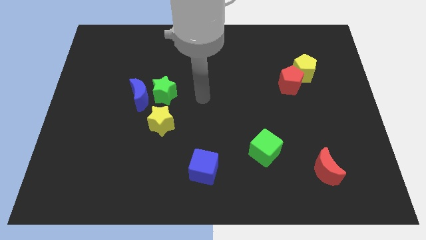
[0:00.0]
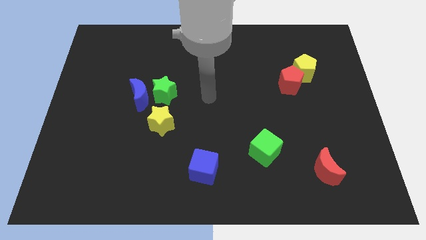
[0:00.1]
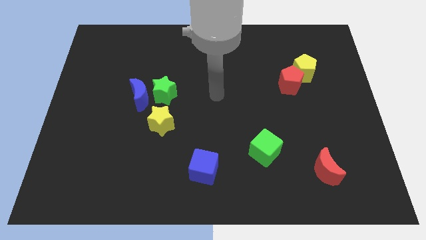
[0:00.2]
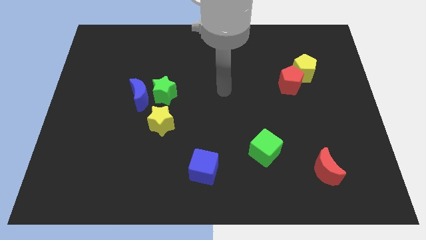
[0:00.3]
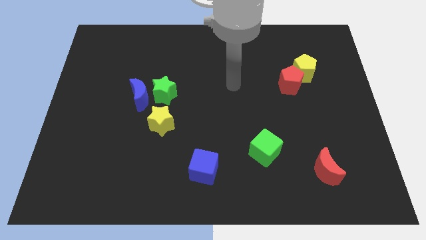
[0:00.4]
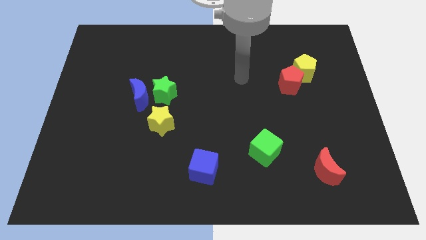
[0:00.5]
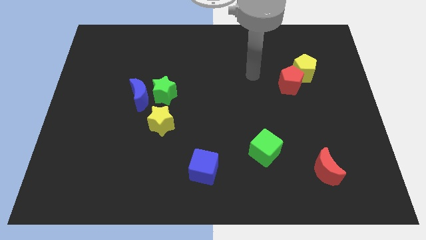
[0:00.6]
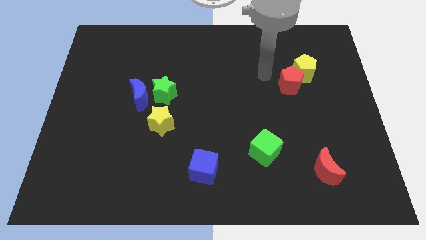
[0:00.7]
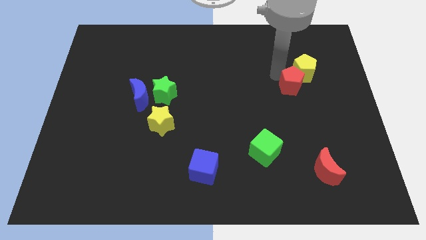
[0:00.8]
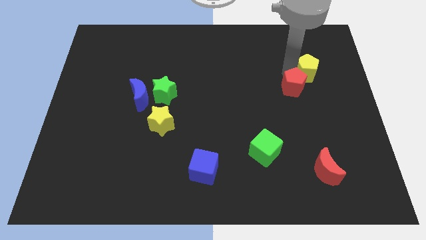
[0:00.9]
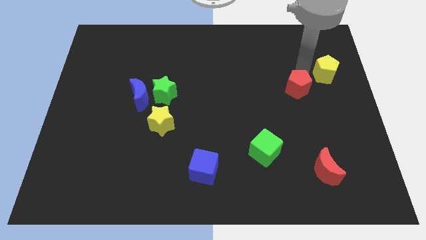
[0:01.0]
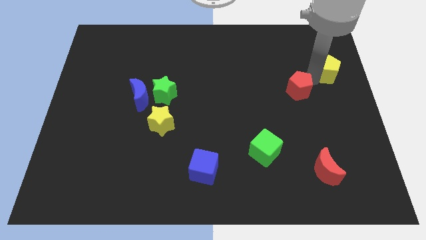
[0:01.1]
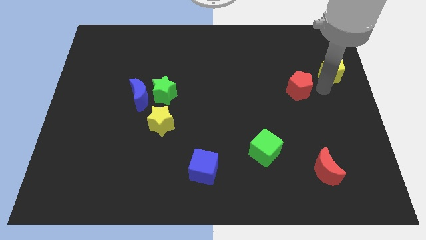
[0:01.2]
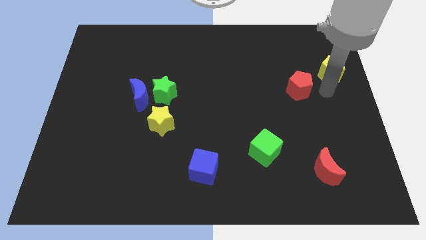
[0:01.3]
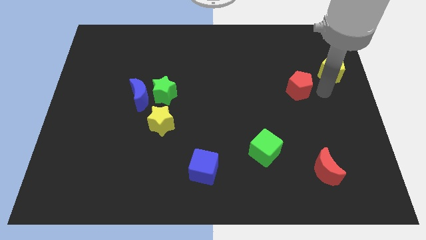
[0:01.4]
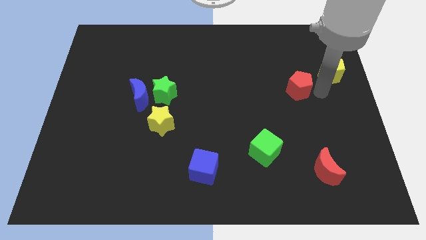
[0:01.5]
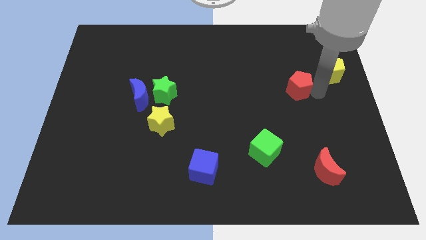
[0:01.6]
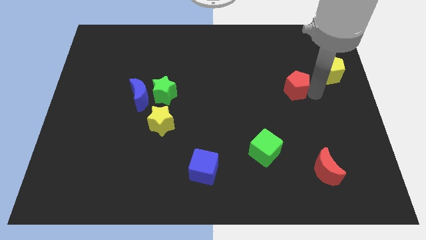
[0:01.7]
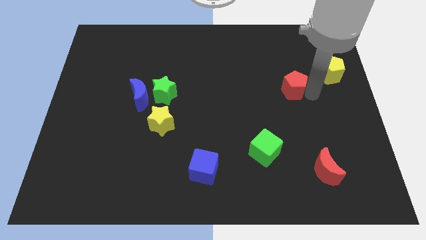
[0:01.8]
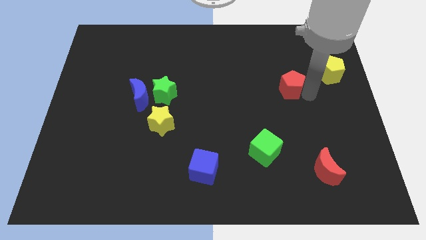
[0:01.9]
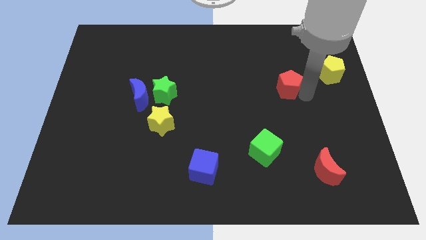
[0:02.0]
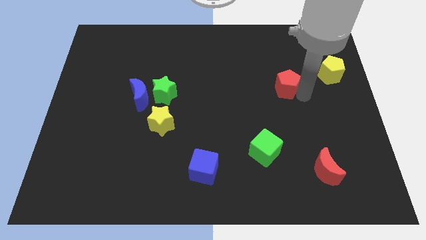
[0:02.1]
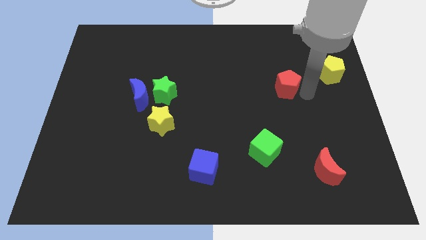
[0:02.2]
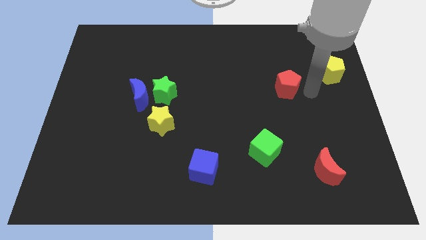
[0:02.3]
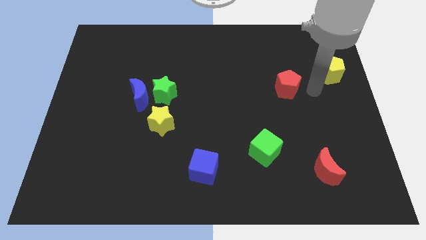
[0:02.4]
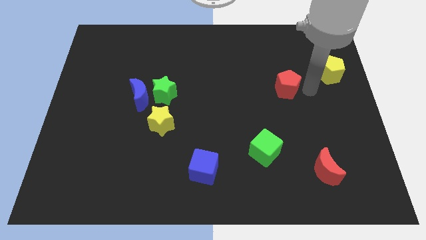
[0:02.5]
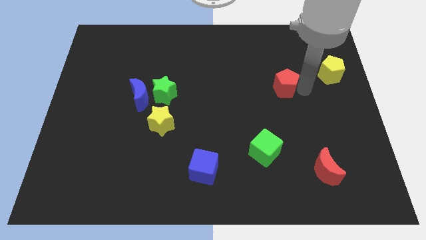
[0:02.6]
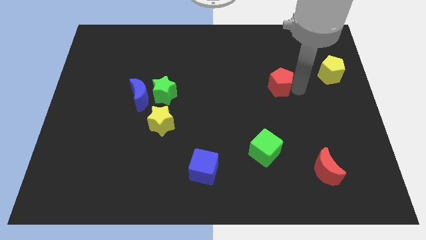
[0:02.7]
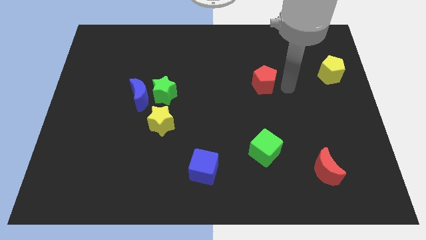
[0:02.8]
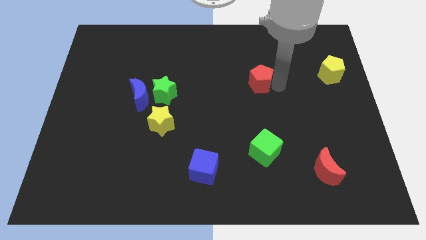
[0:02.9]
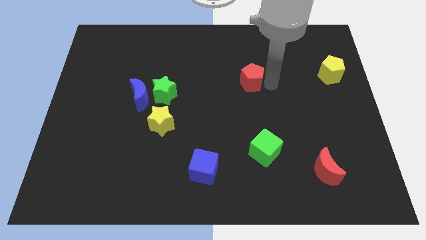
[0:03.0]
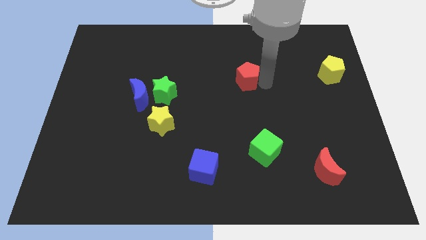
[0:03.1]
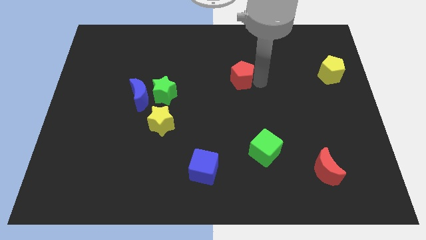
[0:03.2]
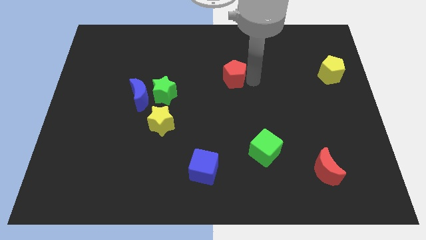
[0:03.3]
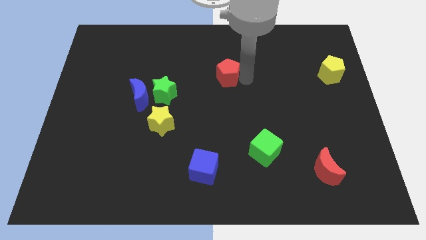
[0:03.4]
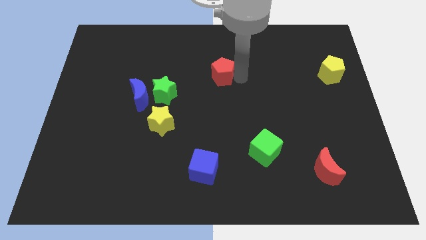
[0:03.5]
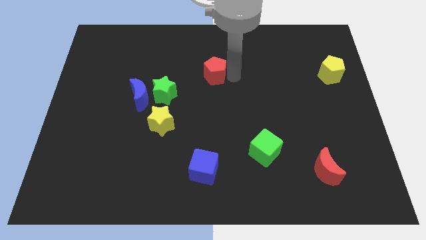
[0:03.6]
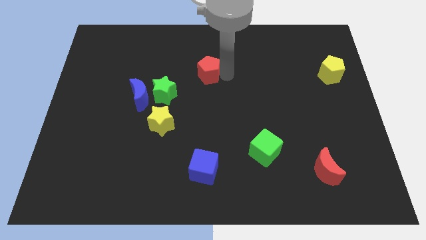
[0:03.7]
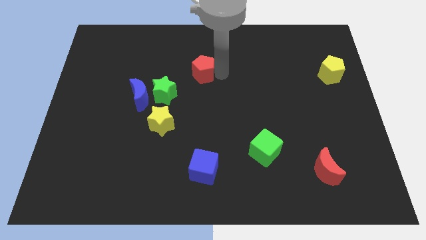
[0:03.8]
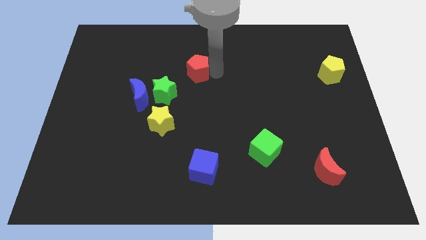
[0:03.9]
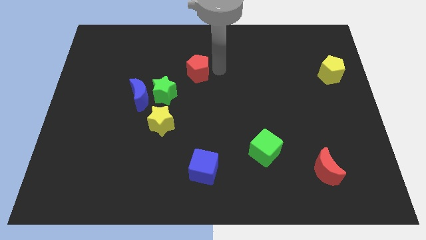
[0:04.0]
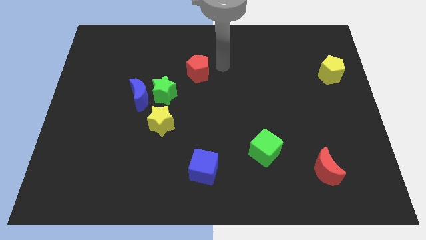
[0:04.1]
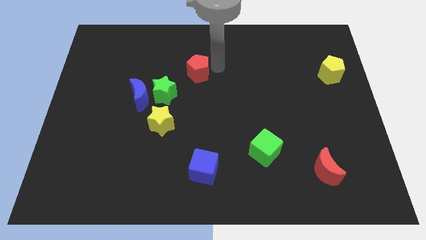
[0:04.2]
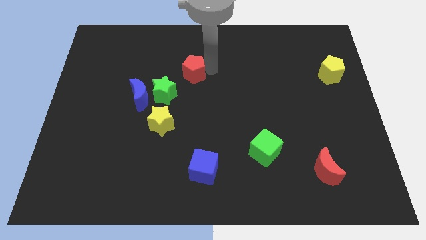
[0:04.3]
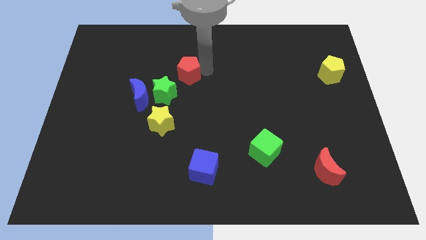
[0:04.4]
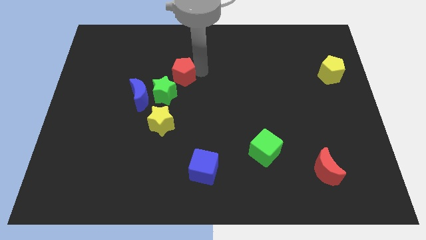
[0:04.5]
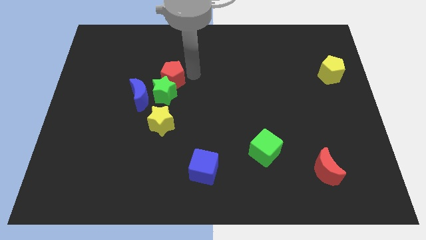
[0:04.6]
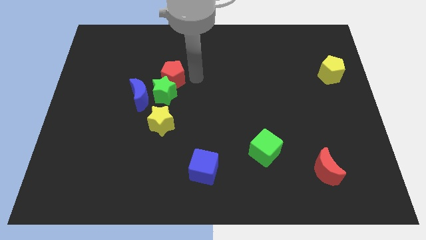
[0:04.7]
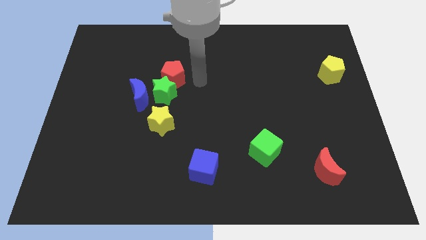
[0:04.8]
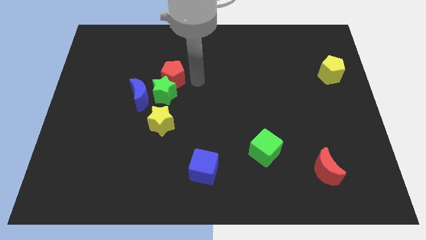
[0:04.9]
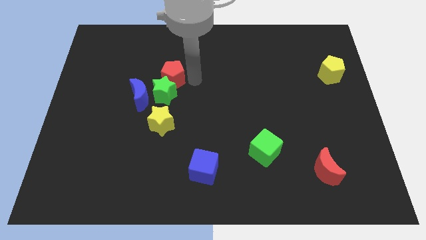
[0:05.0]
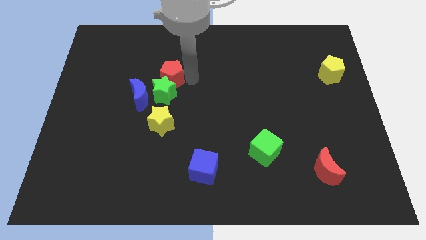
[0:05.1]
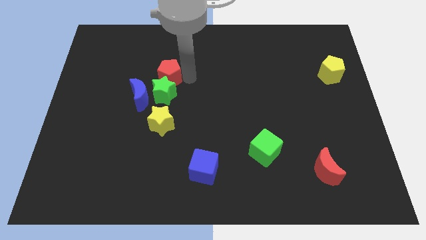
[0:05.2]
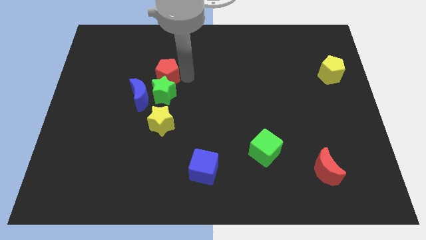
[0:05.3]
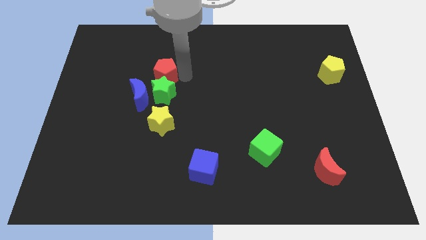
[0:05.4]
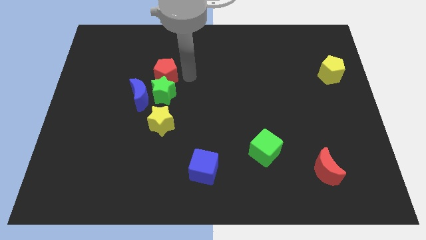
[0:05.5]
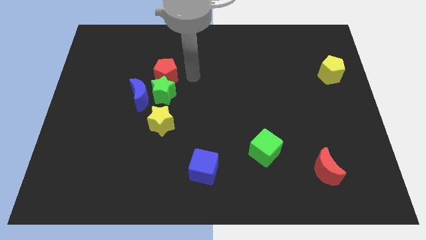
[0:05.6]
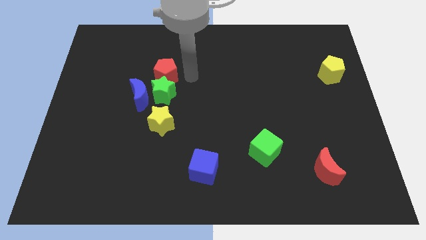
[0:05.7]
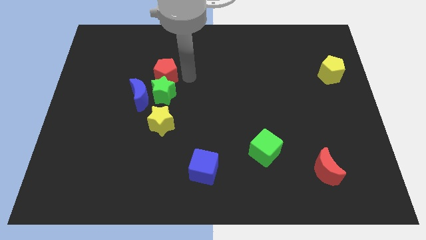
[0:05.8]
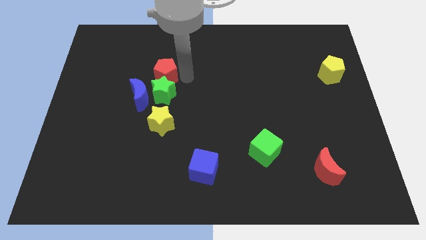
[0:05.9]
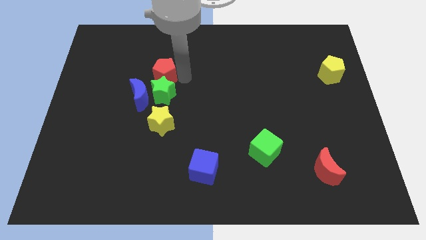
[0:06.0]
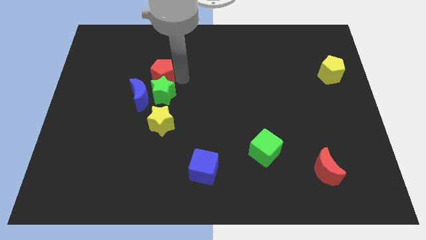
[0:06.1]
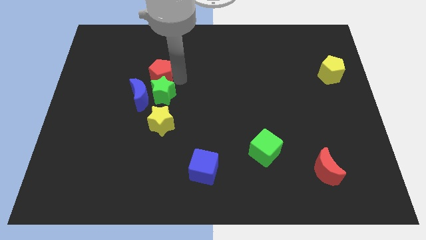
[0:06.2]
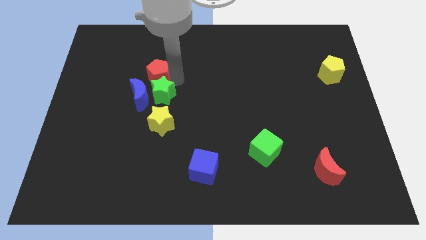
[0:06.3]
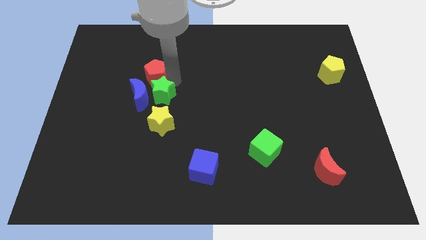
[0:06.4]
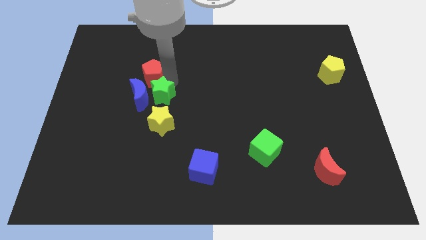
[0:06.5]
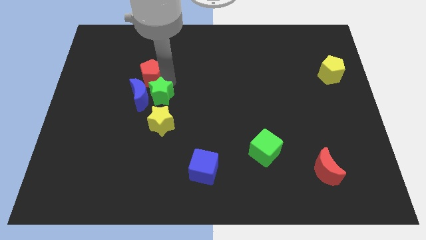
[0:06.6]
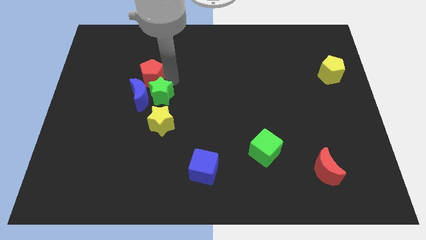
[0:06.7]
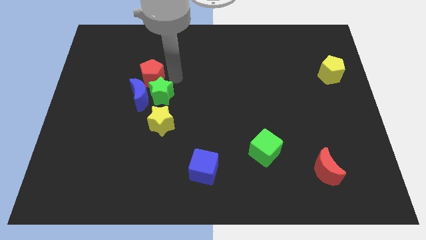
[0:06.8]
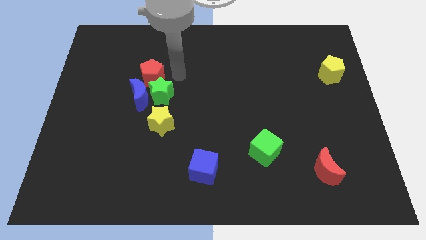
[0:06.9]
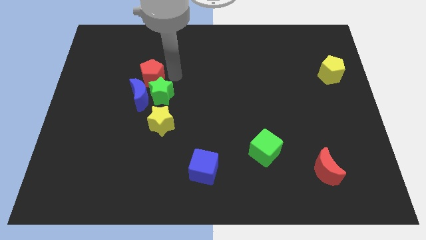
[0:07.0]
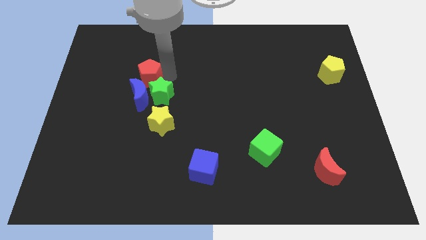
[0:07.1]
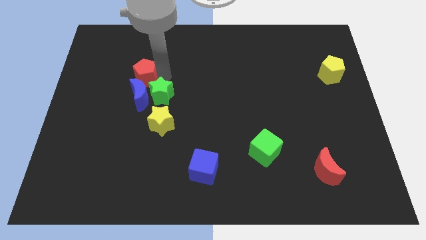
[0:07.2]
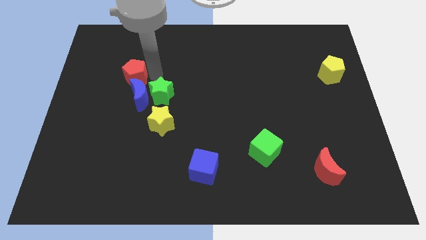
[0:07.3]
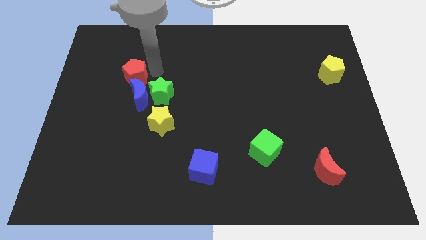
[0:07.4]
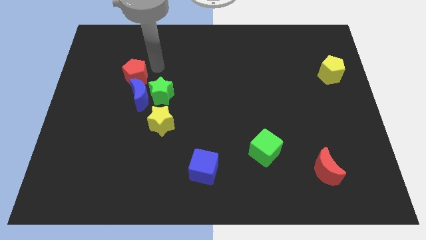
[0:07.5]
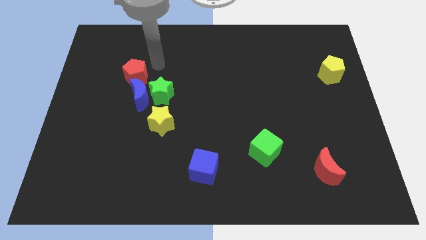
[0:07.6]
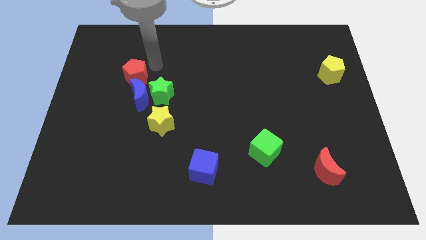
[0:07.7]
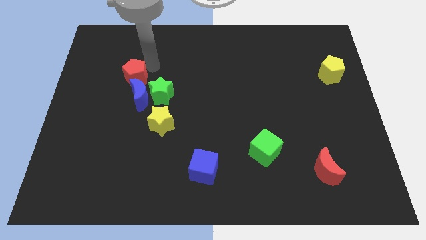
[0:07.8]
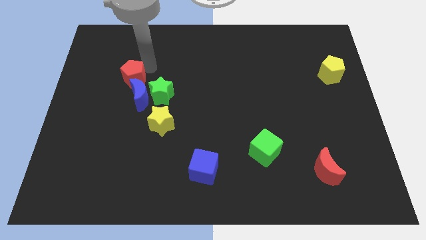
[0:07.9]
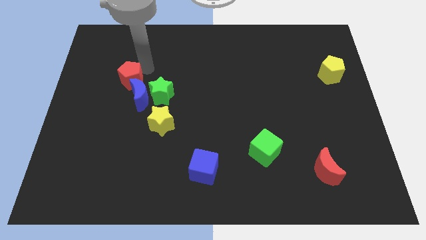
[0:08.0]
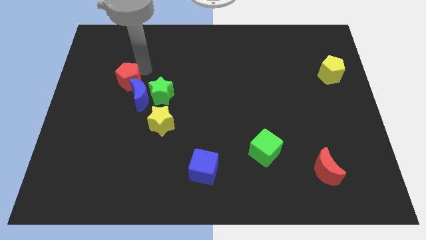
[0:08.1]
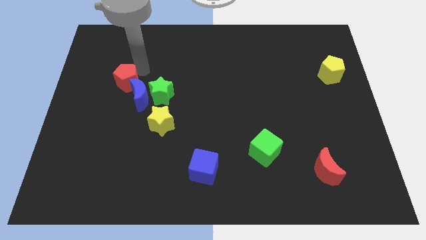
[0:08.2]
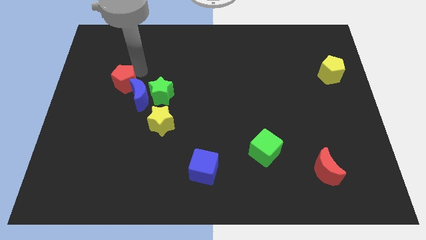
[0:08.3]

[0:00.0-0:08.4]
move the red pentagon to the left of the blue moon
